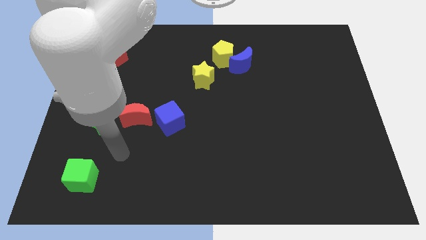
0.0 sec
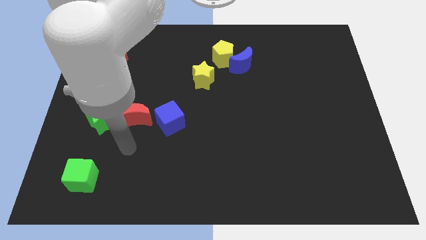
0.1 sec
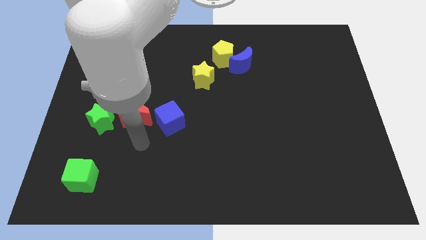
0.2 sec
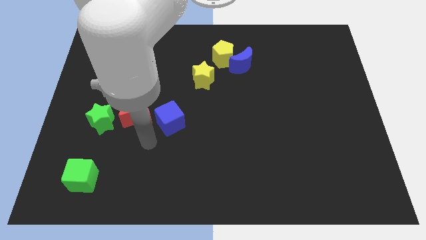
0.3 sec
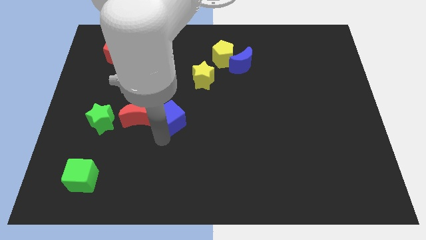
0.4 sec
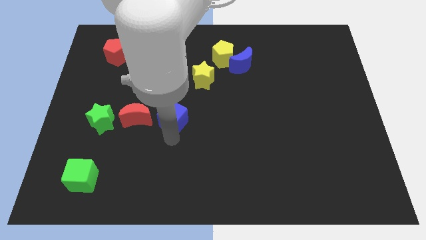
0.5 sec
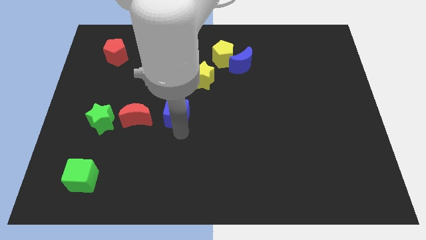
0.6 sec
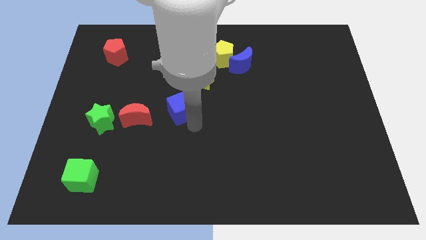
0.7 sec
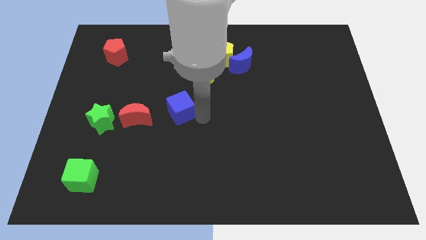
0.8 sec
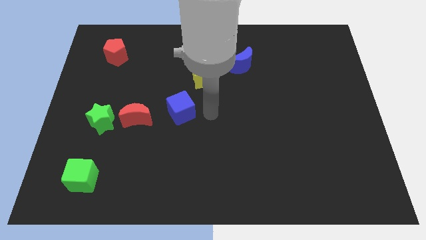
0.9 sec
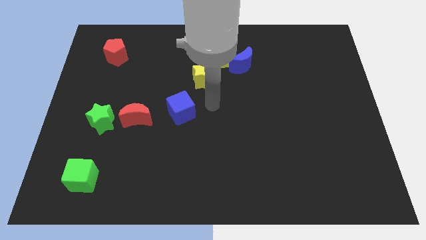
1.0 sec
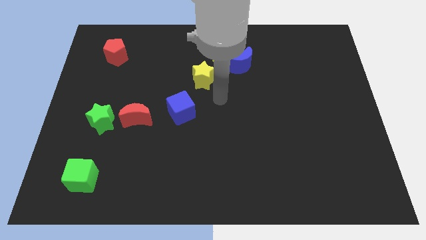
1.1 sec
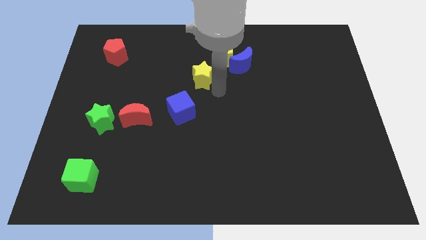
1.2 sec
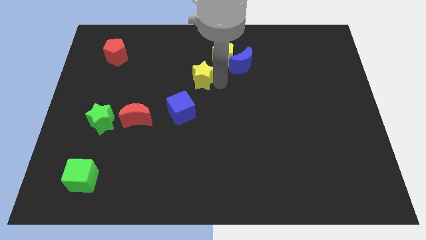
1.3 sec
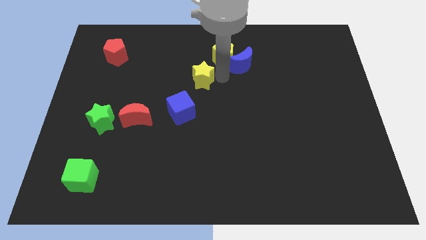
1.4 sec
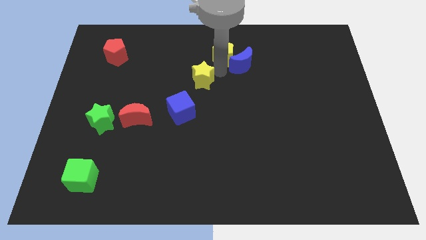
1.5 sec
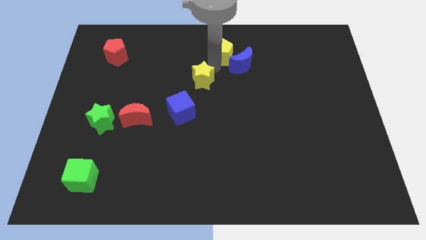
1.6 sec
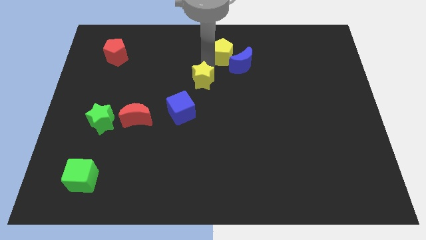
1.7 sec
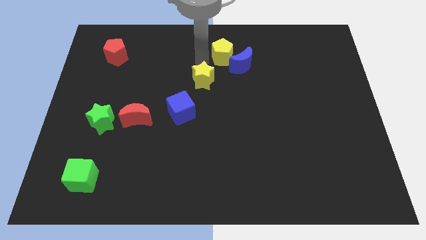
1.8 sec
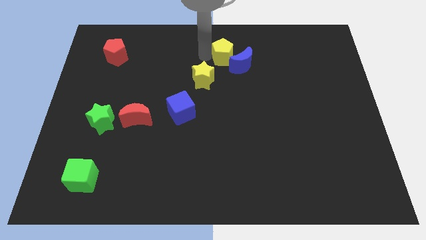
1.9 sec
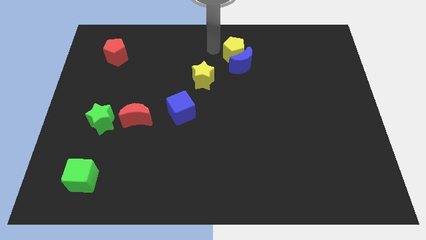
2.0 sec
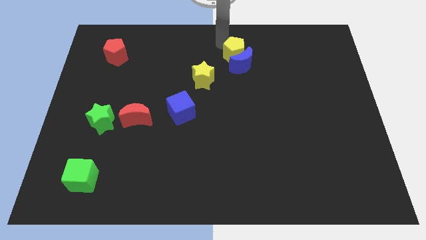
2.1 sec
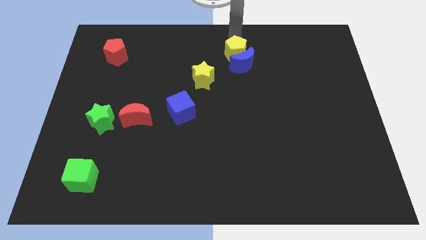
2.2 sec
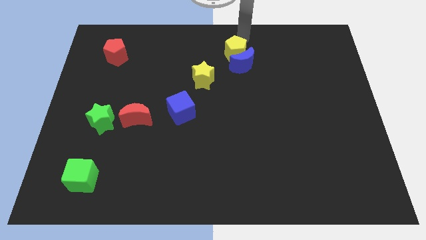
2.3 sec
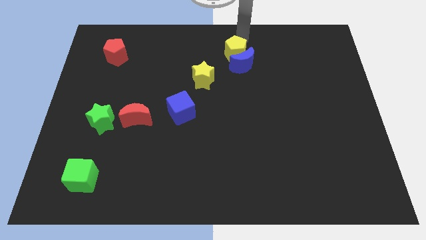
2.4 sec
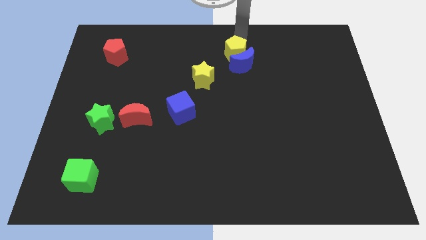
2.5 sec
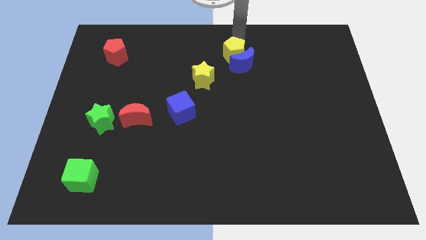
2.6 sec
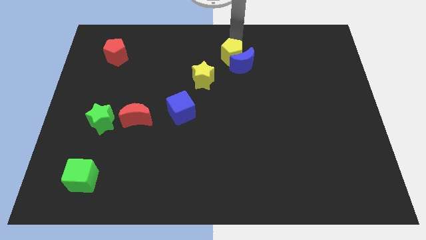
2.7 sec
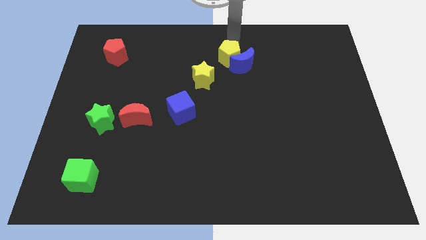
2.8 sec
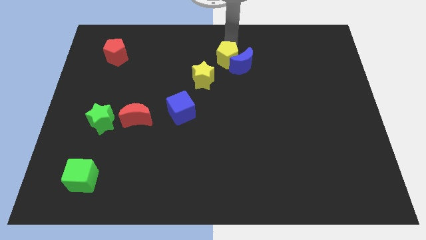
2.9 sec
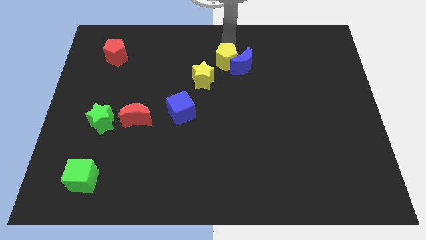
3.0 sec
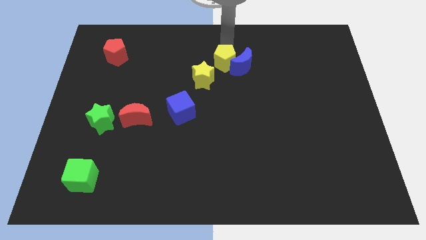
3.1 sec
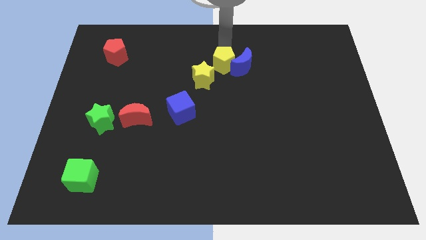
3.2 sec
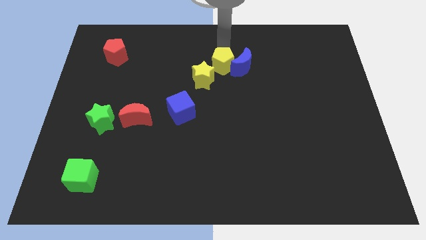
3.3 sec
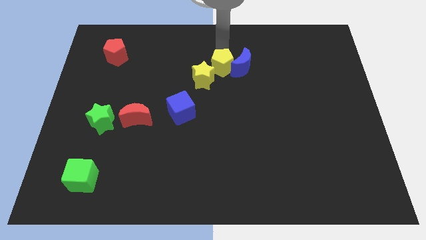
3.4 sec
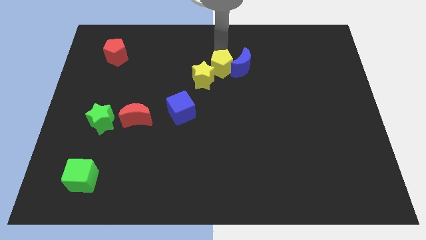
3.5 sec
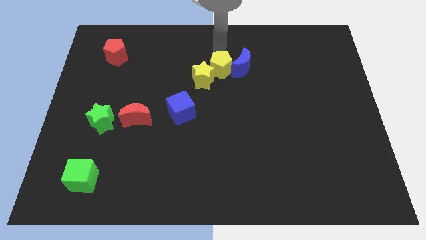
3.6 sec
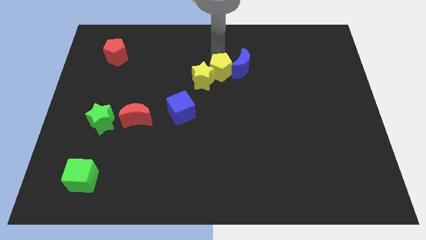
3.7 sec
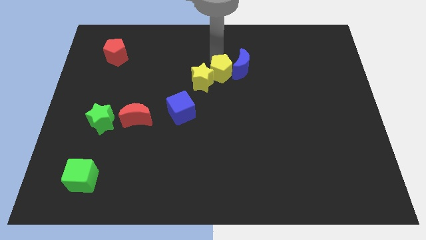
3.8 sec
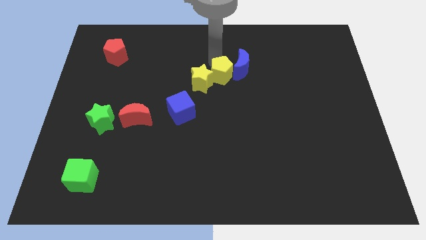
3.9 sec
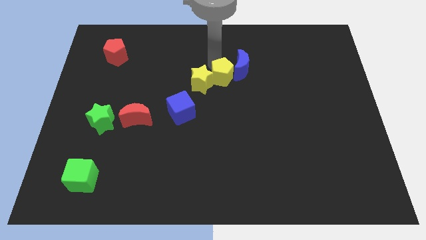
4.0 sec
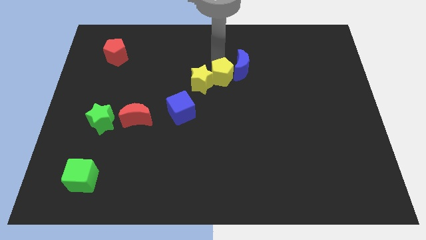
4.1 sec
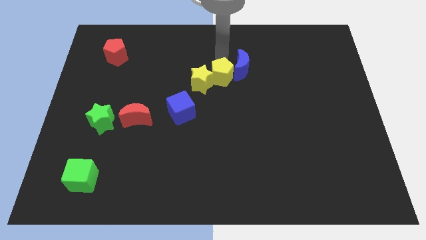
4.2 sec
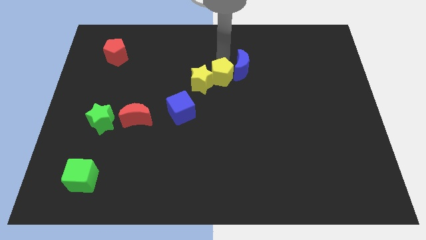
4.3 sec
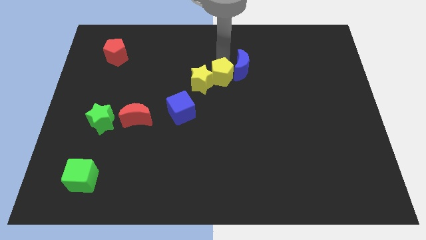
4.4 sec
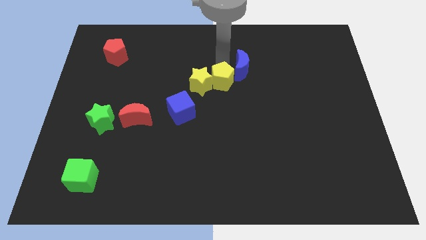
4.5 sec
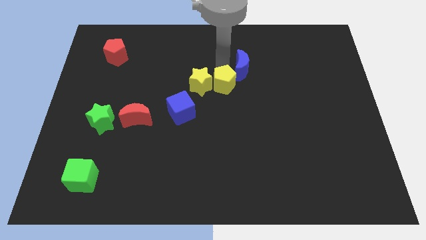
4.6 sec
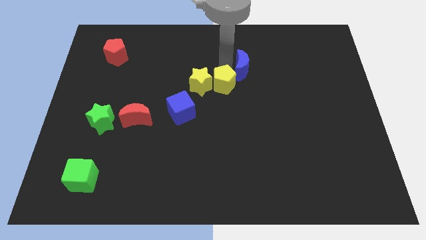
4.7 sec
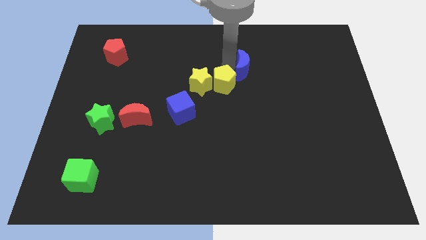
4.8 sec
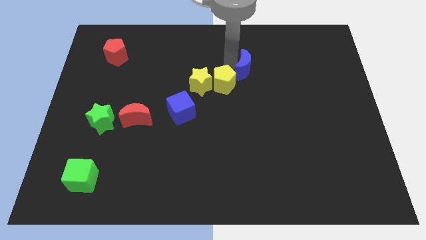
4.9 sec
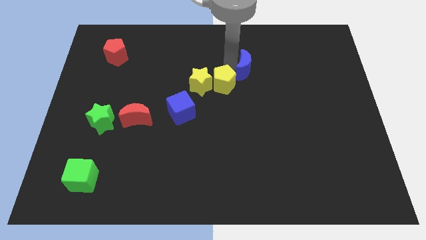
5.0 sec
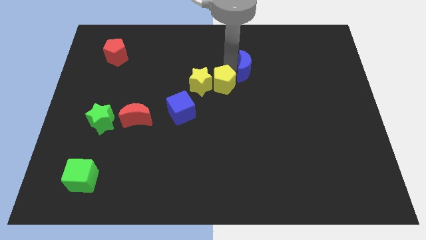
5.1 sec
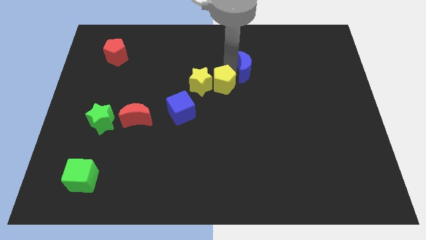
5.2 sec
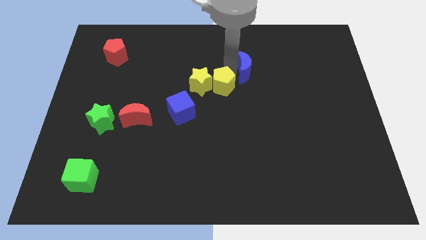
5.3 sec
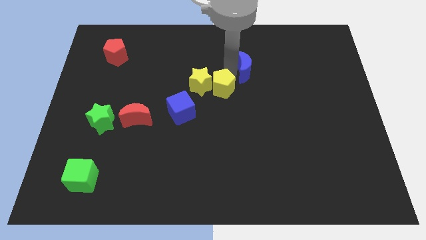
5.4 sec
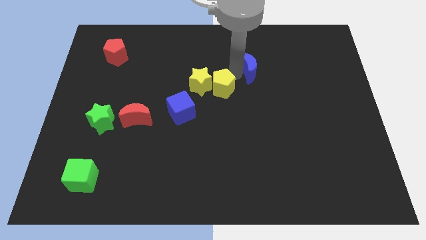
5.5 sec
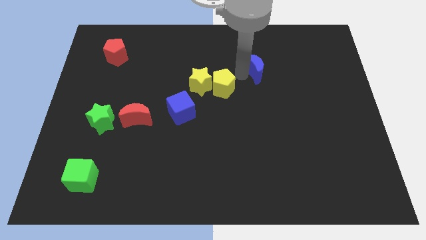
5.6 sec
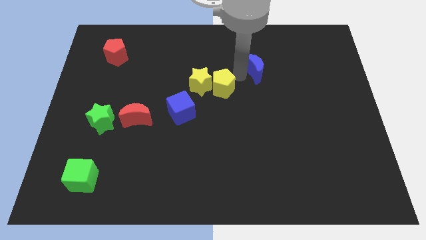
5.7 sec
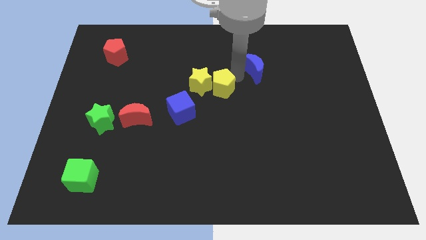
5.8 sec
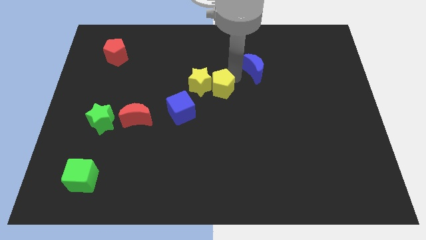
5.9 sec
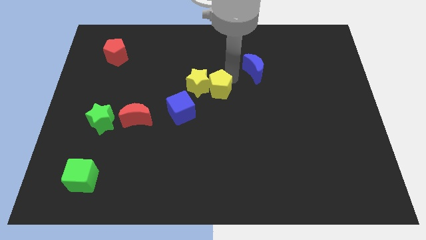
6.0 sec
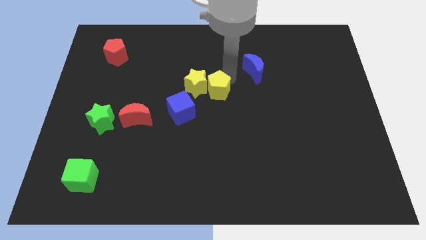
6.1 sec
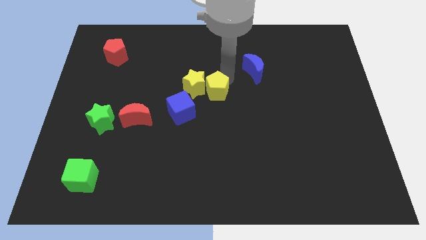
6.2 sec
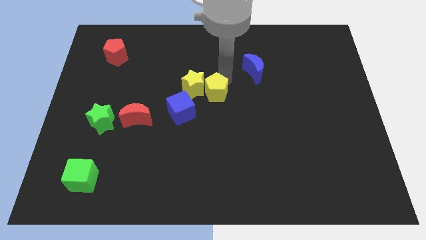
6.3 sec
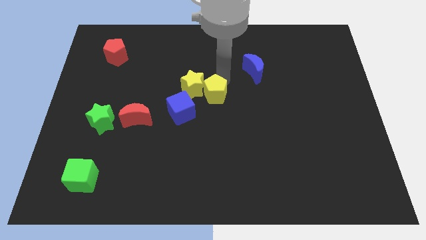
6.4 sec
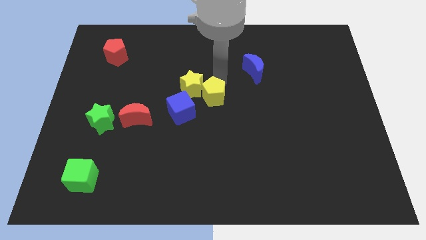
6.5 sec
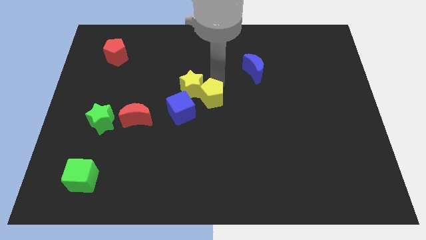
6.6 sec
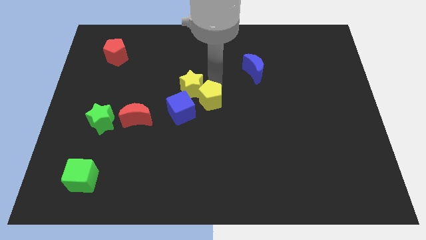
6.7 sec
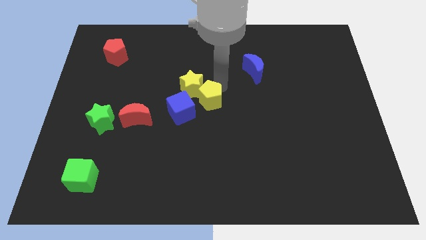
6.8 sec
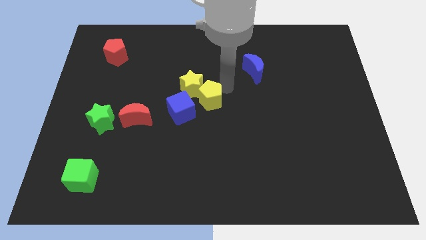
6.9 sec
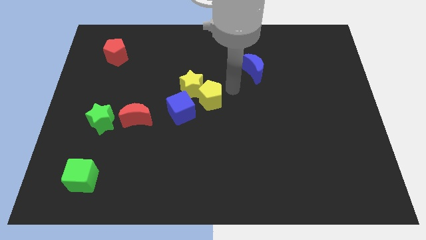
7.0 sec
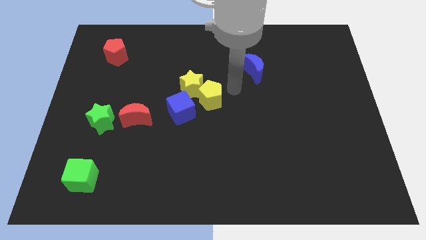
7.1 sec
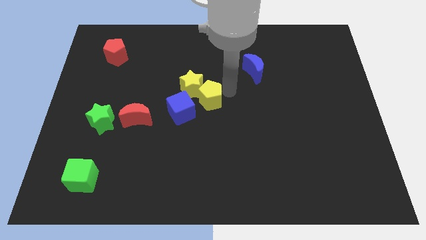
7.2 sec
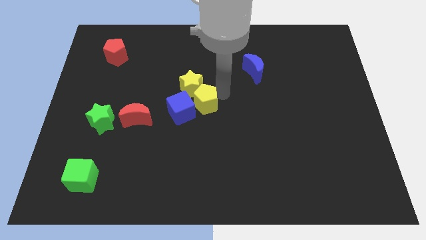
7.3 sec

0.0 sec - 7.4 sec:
put the yellow pentagon towards the blue cube
